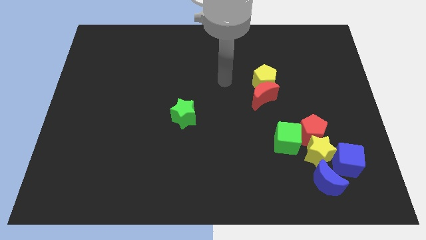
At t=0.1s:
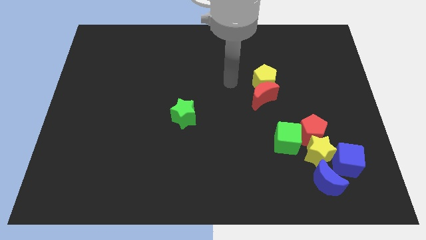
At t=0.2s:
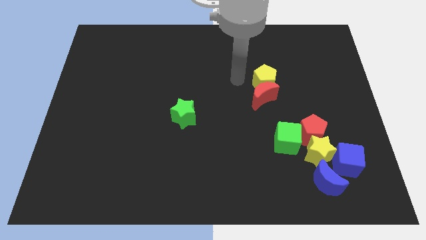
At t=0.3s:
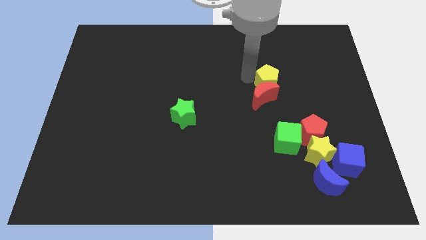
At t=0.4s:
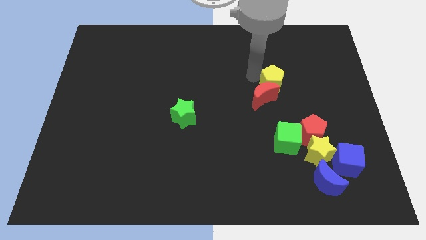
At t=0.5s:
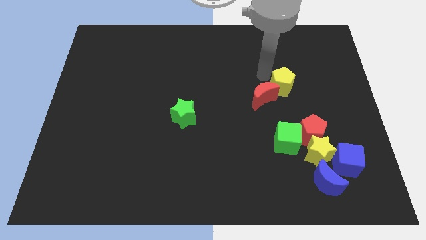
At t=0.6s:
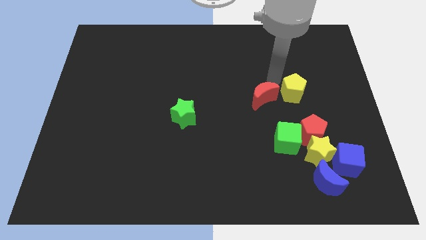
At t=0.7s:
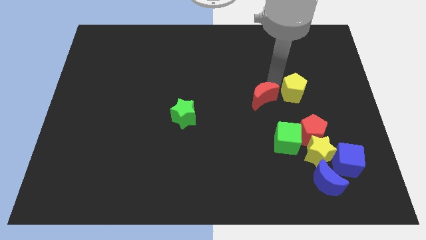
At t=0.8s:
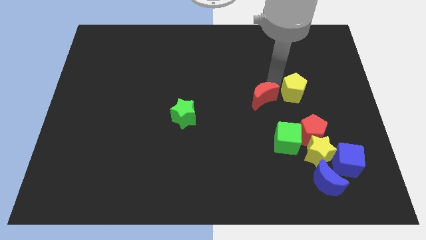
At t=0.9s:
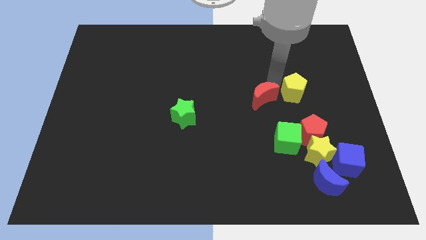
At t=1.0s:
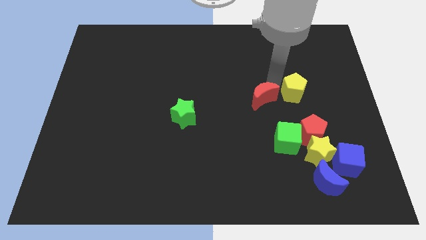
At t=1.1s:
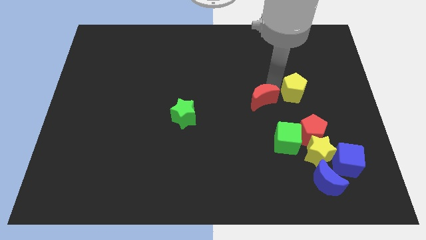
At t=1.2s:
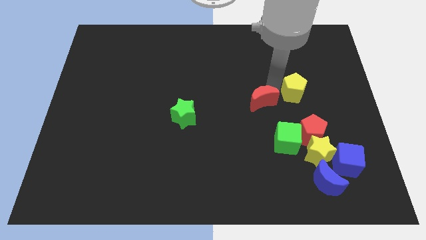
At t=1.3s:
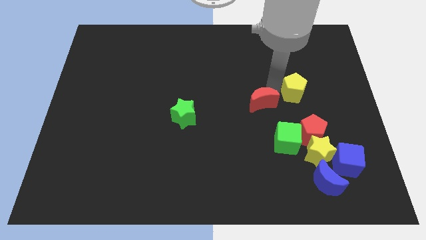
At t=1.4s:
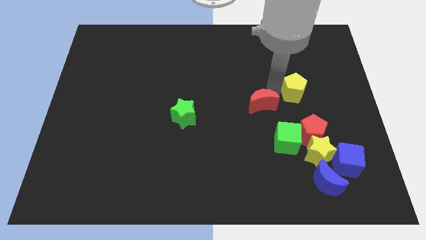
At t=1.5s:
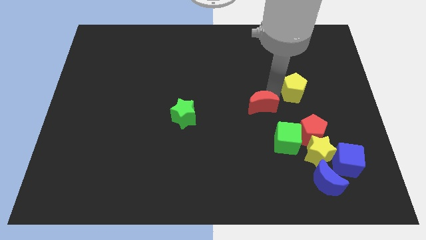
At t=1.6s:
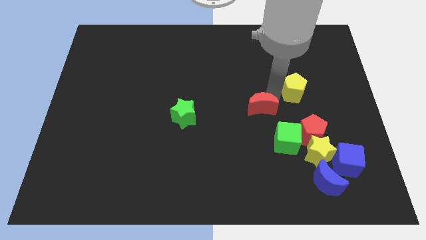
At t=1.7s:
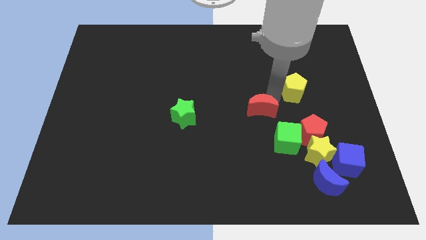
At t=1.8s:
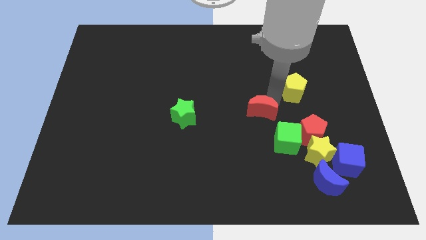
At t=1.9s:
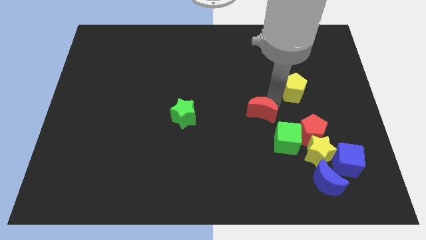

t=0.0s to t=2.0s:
move the red moon away from the yellow pentagon

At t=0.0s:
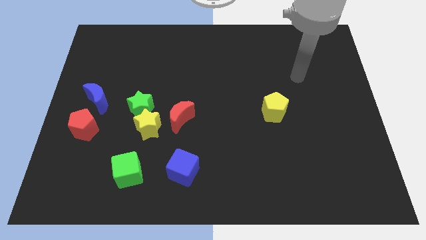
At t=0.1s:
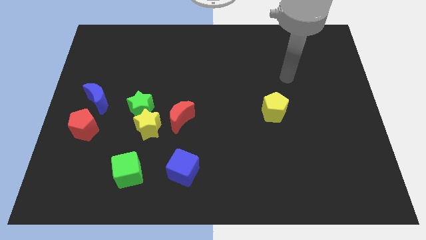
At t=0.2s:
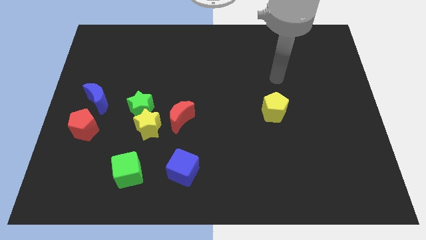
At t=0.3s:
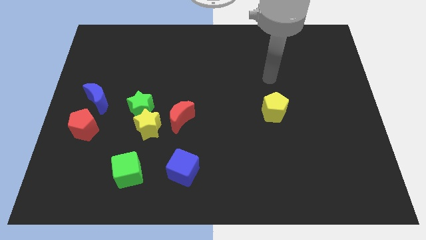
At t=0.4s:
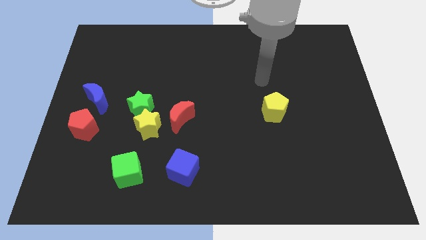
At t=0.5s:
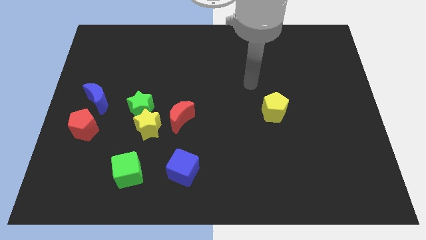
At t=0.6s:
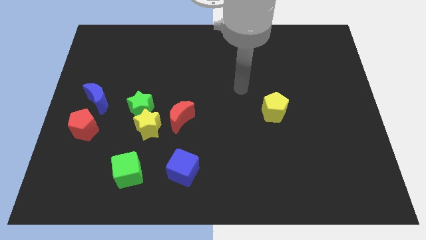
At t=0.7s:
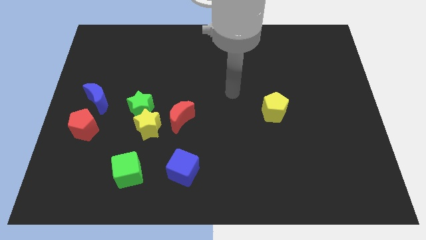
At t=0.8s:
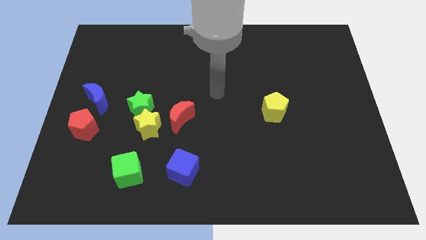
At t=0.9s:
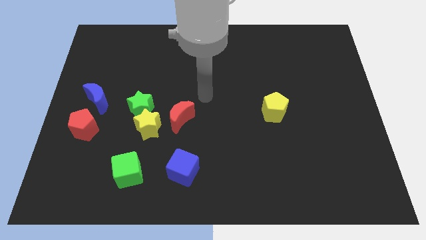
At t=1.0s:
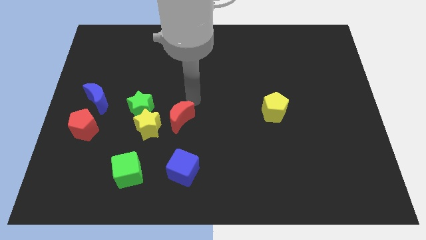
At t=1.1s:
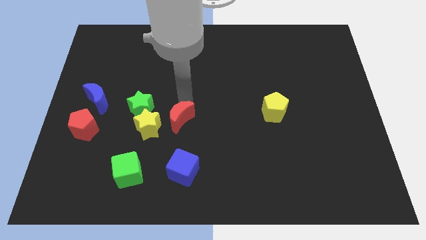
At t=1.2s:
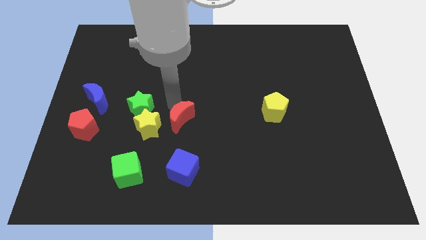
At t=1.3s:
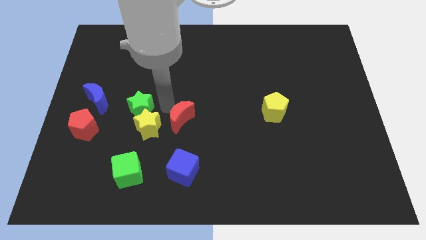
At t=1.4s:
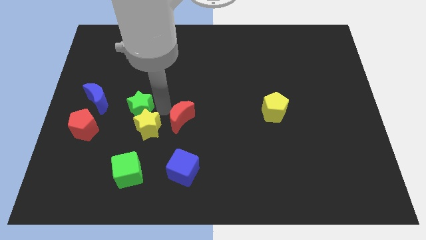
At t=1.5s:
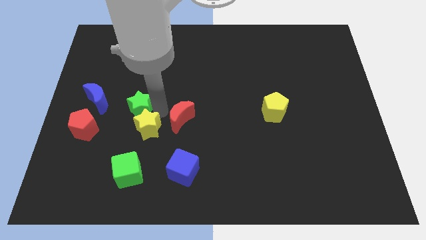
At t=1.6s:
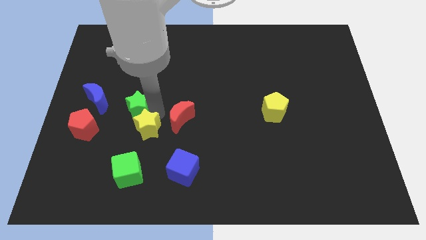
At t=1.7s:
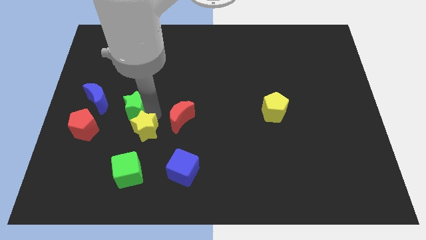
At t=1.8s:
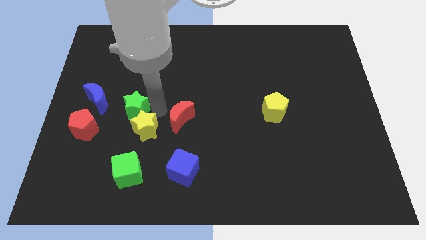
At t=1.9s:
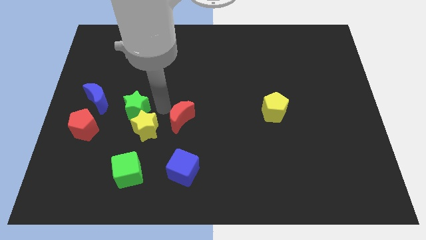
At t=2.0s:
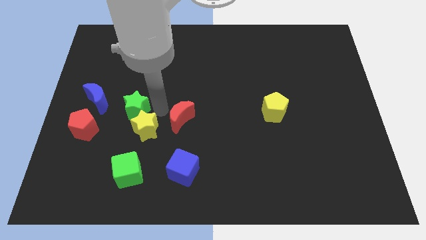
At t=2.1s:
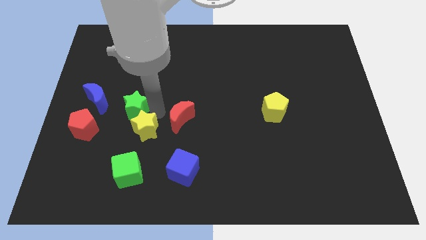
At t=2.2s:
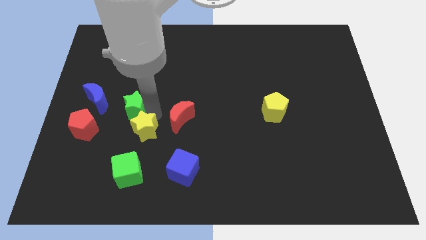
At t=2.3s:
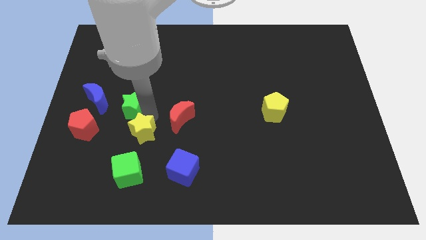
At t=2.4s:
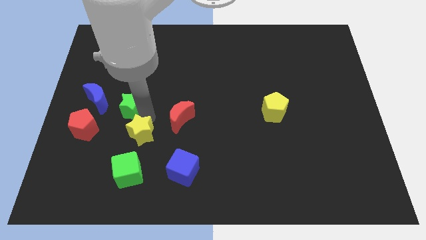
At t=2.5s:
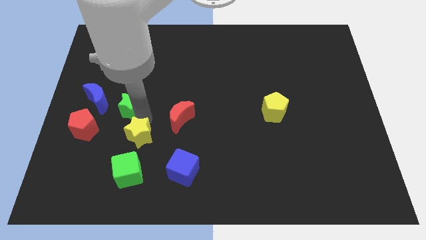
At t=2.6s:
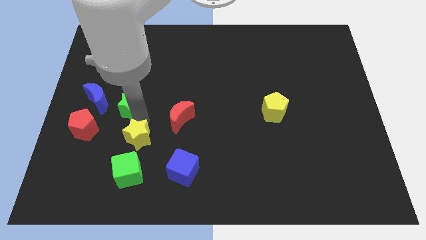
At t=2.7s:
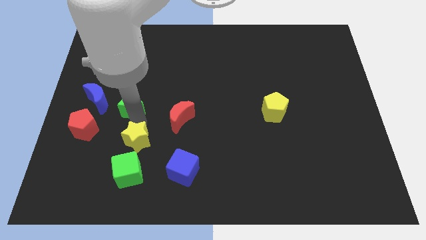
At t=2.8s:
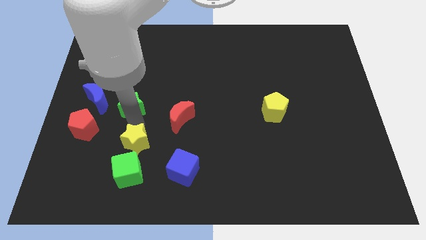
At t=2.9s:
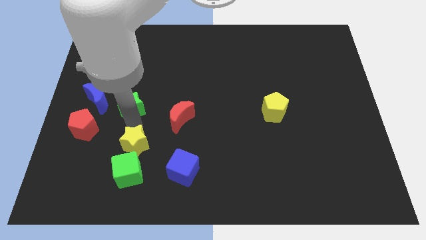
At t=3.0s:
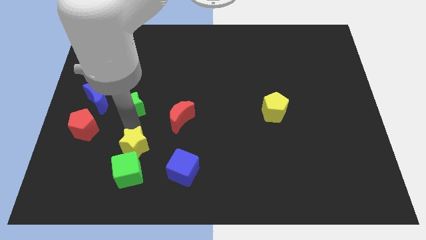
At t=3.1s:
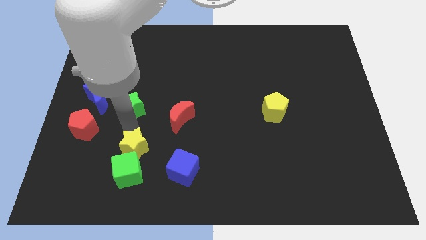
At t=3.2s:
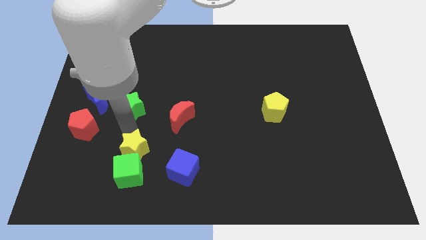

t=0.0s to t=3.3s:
move the yellow star away from the green star and red moon

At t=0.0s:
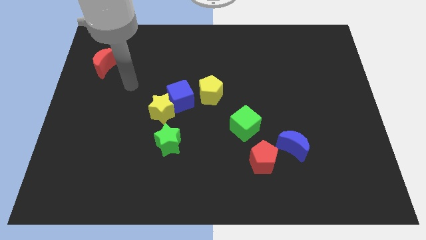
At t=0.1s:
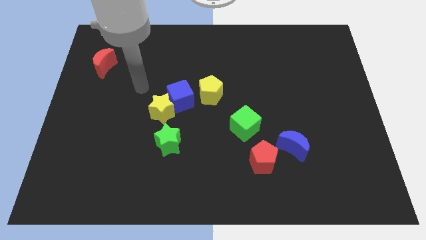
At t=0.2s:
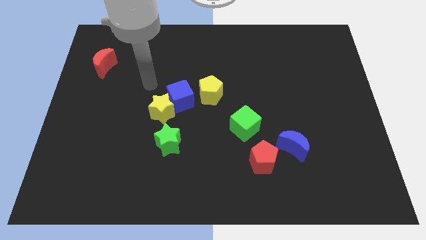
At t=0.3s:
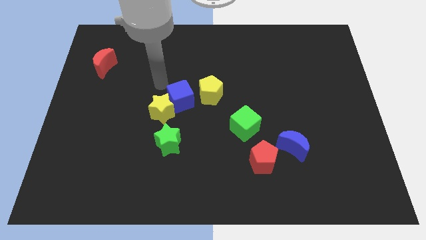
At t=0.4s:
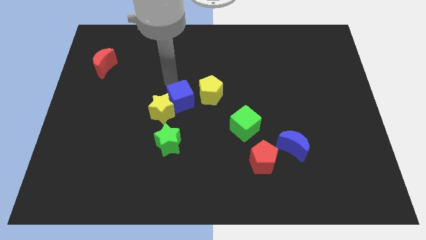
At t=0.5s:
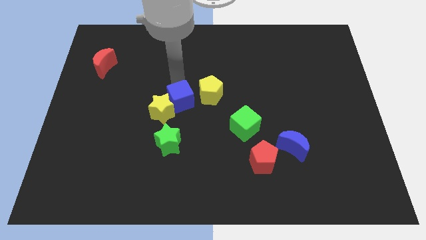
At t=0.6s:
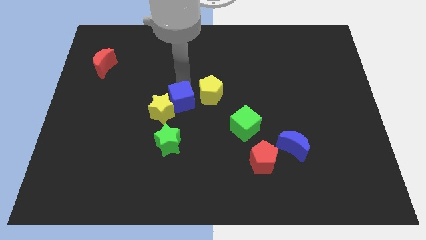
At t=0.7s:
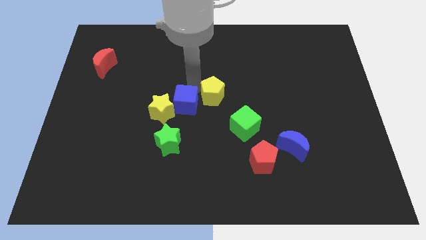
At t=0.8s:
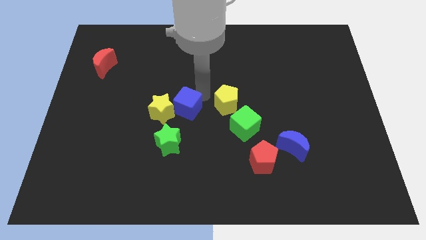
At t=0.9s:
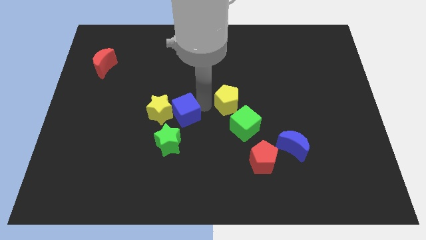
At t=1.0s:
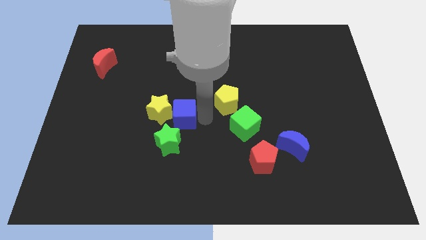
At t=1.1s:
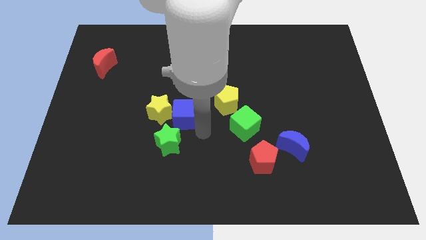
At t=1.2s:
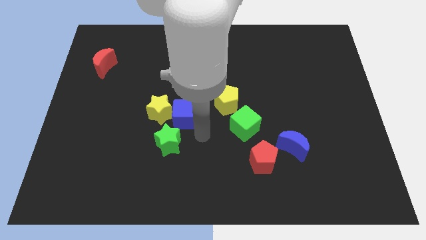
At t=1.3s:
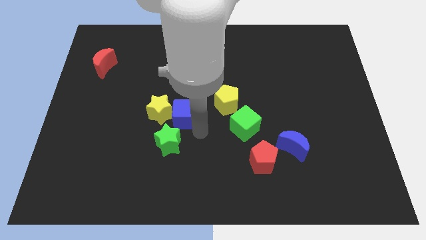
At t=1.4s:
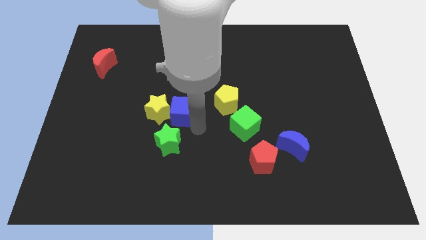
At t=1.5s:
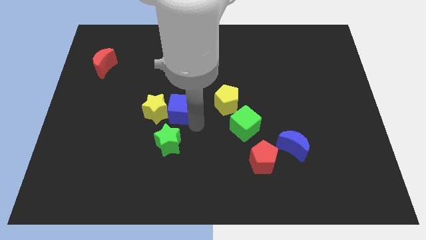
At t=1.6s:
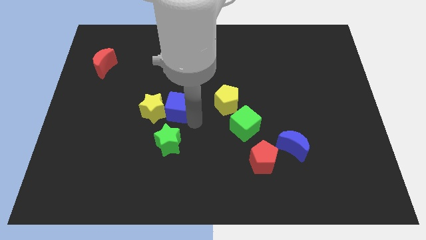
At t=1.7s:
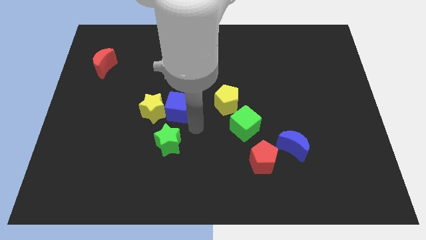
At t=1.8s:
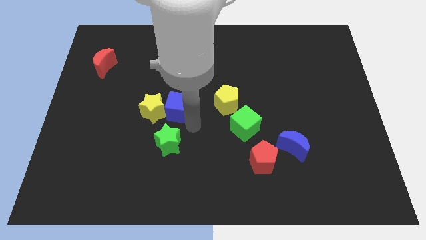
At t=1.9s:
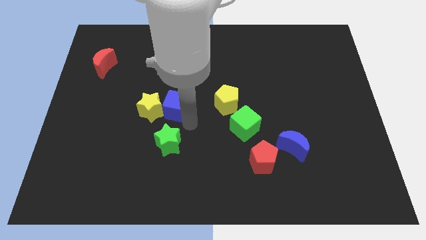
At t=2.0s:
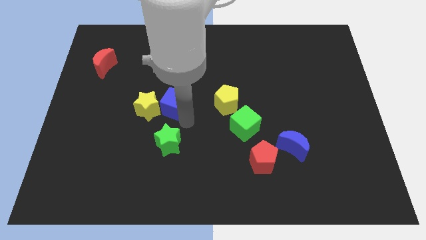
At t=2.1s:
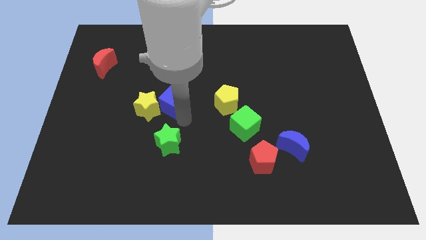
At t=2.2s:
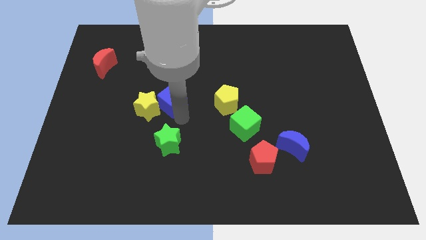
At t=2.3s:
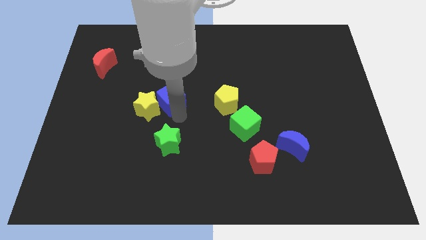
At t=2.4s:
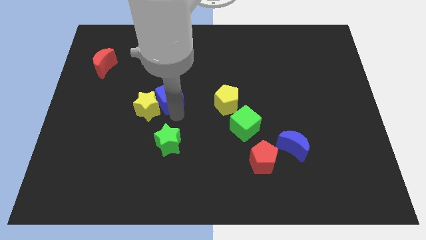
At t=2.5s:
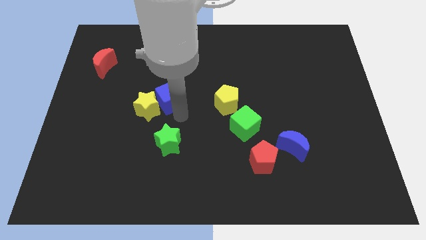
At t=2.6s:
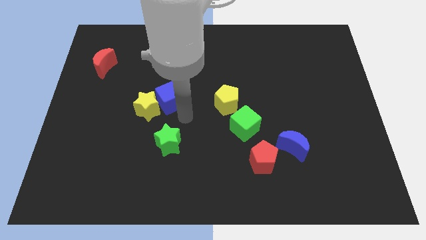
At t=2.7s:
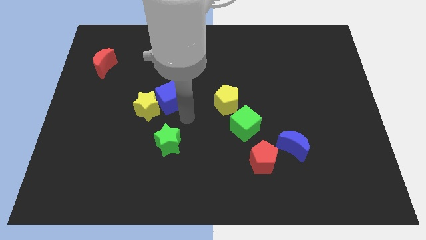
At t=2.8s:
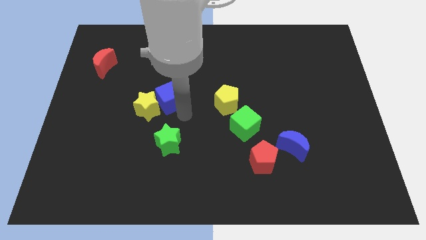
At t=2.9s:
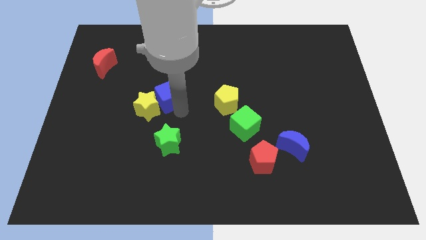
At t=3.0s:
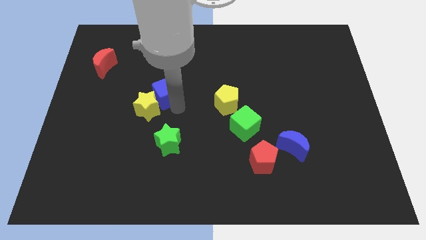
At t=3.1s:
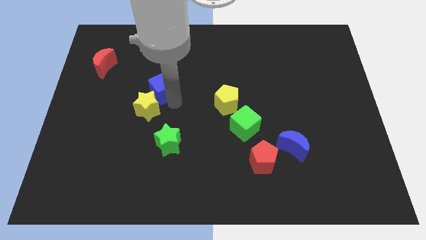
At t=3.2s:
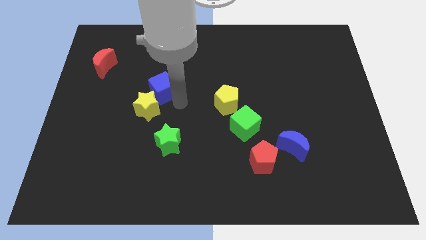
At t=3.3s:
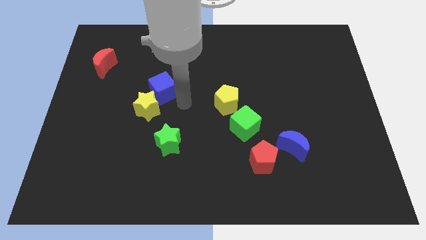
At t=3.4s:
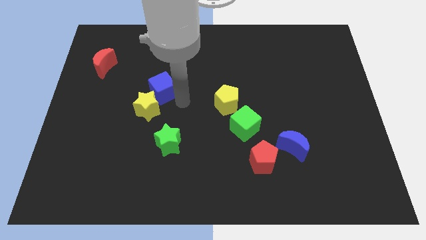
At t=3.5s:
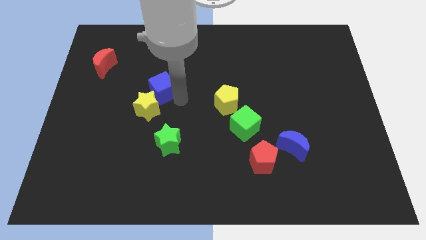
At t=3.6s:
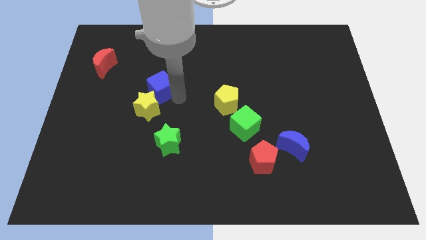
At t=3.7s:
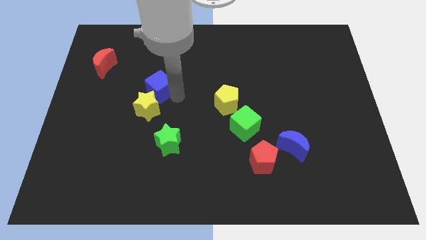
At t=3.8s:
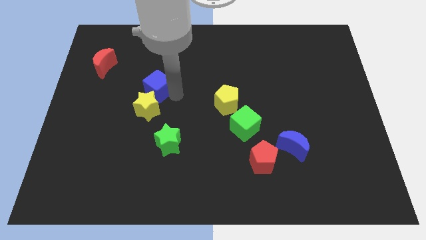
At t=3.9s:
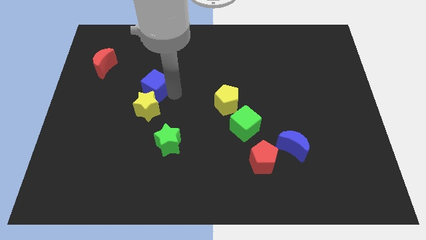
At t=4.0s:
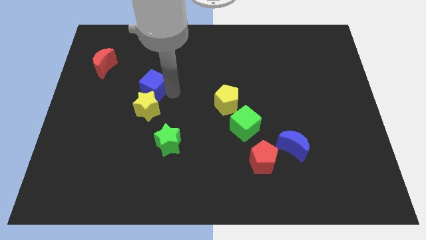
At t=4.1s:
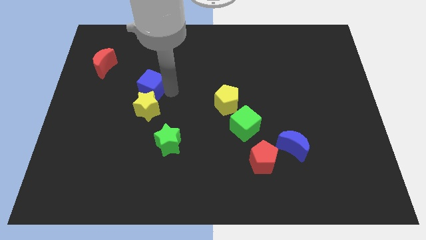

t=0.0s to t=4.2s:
separate the blue cube from the yellow star and yellow pentagon
